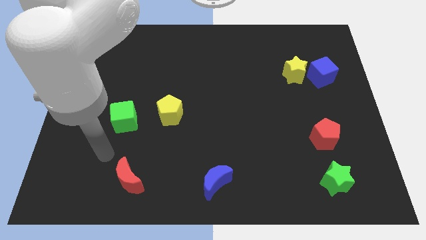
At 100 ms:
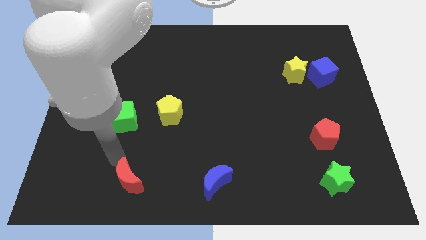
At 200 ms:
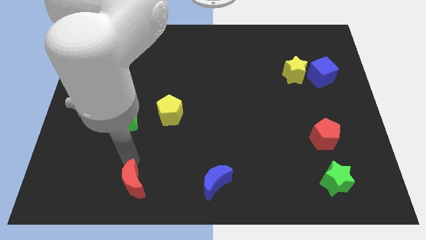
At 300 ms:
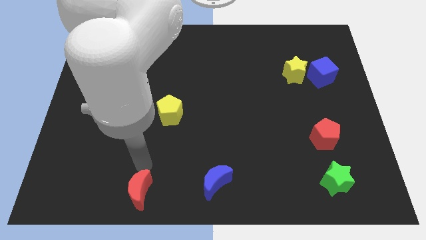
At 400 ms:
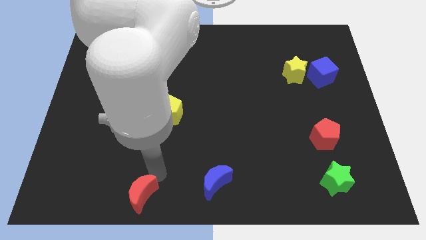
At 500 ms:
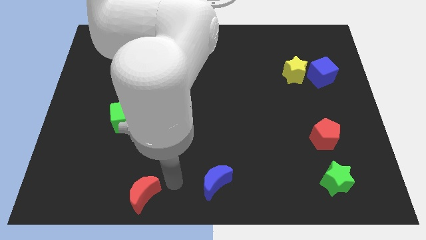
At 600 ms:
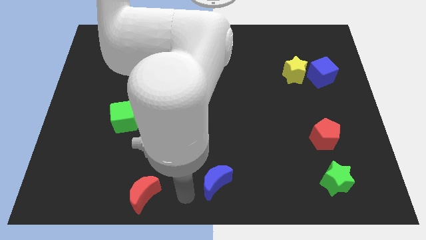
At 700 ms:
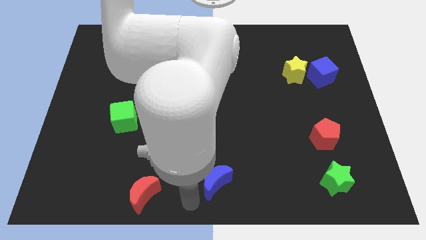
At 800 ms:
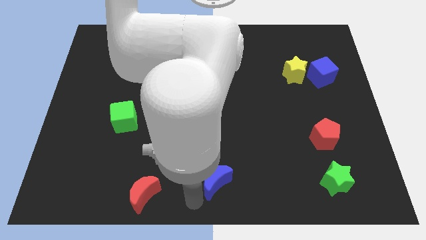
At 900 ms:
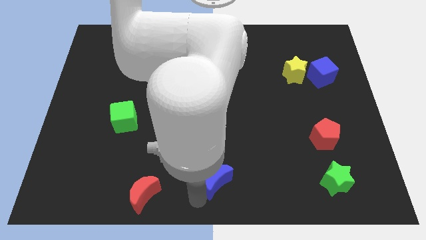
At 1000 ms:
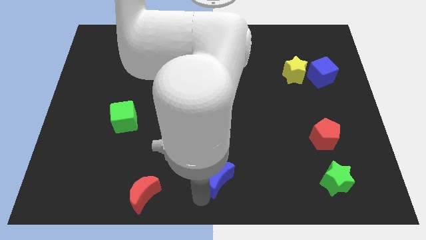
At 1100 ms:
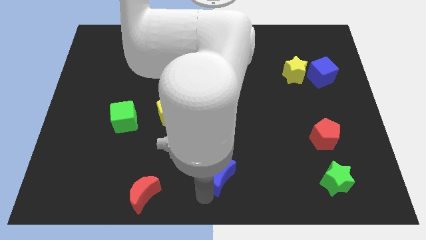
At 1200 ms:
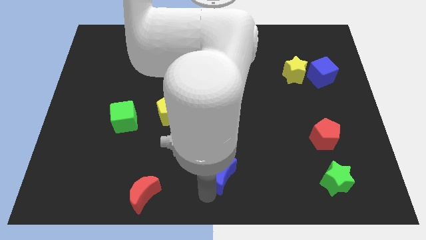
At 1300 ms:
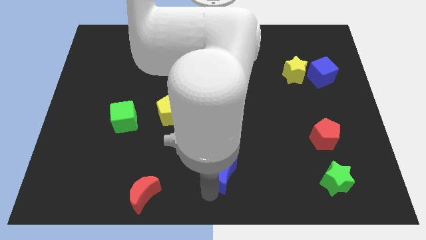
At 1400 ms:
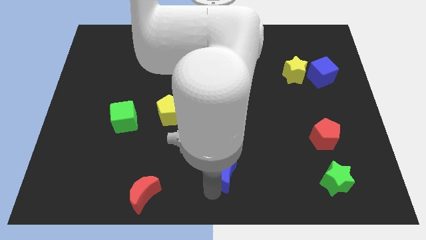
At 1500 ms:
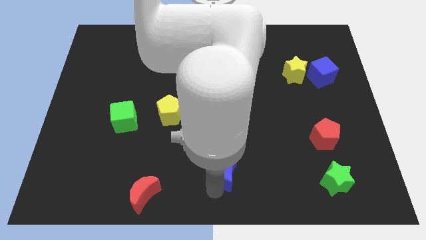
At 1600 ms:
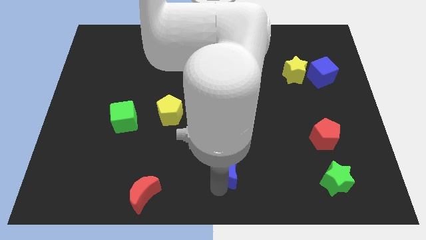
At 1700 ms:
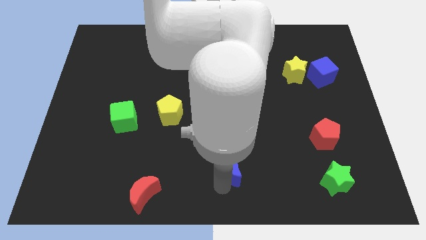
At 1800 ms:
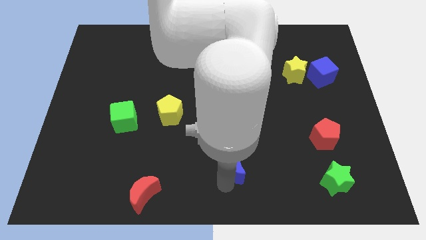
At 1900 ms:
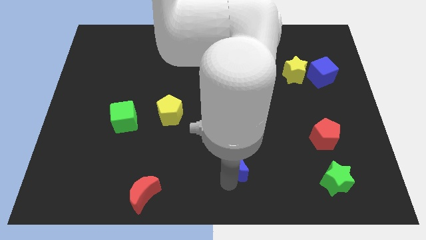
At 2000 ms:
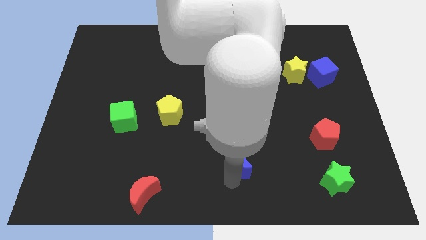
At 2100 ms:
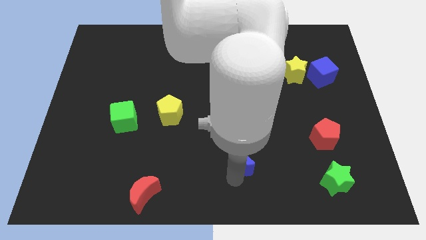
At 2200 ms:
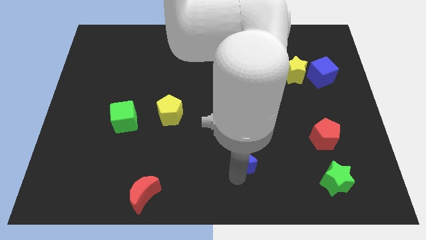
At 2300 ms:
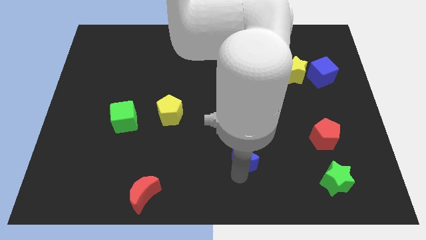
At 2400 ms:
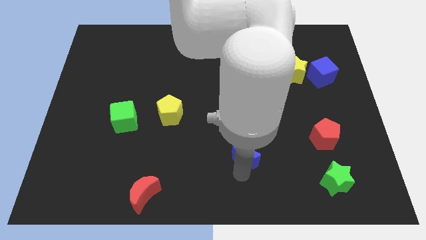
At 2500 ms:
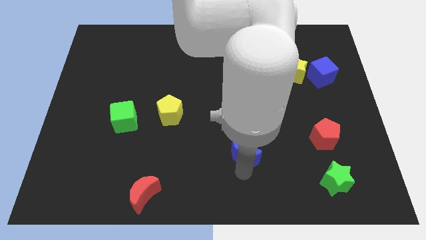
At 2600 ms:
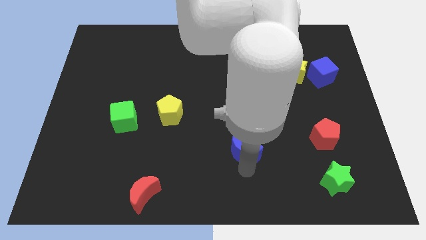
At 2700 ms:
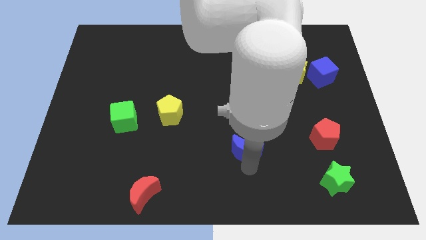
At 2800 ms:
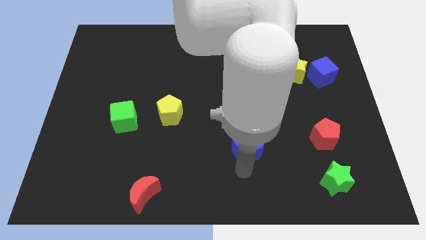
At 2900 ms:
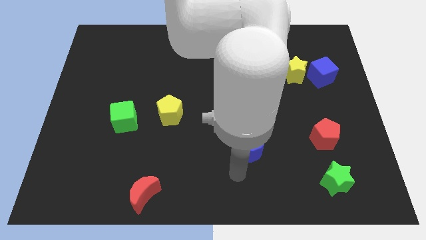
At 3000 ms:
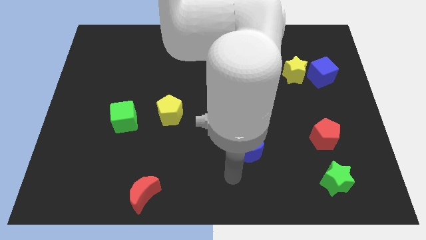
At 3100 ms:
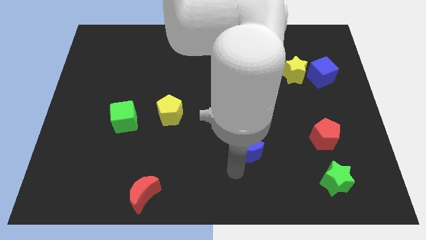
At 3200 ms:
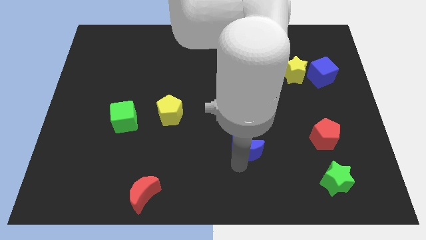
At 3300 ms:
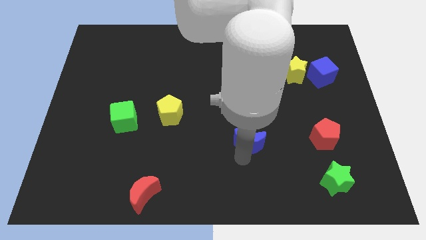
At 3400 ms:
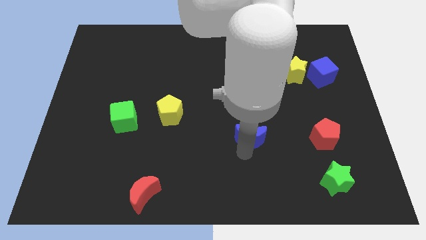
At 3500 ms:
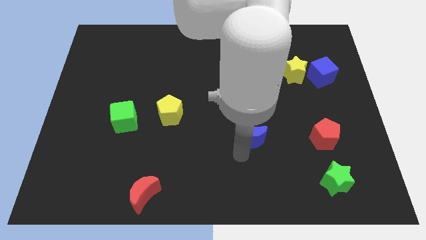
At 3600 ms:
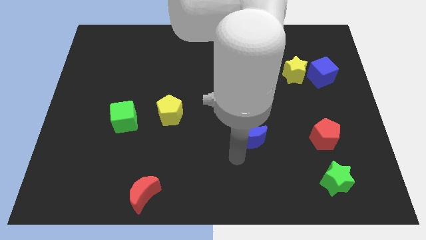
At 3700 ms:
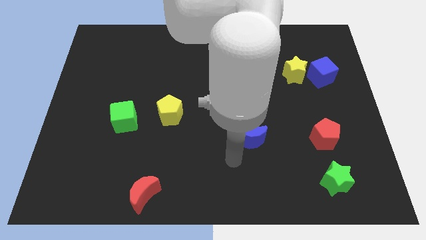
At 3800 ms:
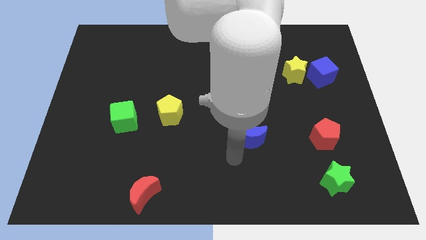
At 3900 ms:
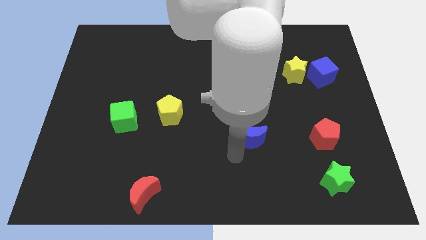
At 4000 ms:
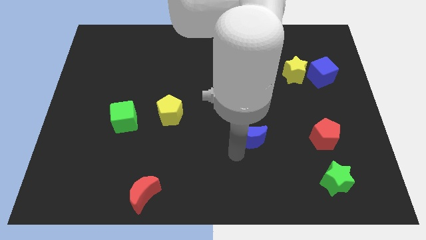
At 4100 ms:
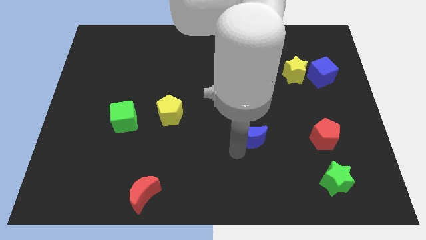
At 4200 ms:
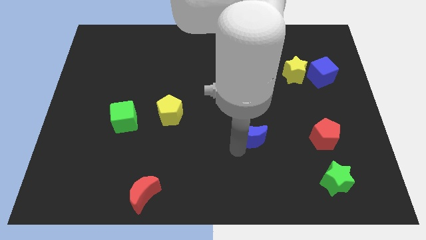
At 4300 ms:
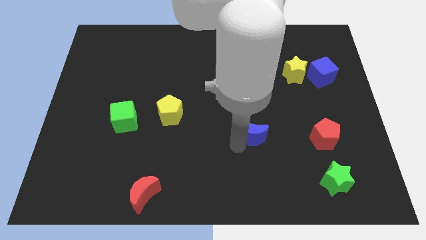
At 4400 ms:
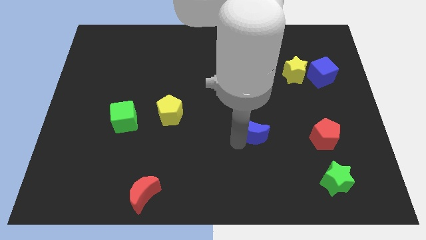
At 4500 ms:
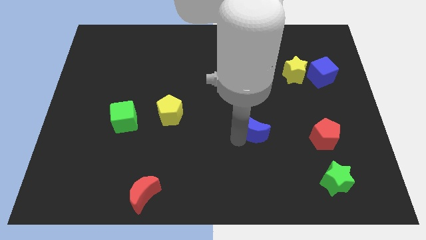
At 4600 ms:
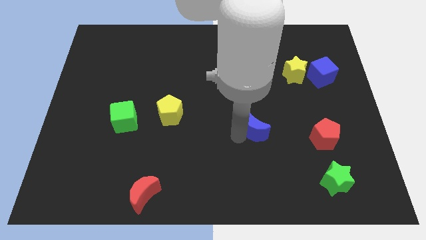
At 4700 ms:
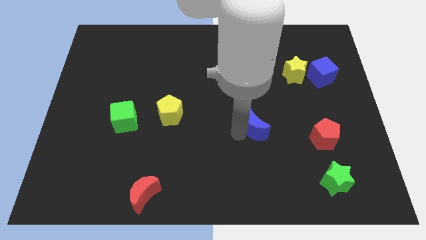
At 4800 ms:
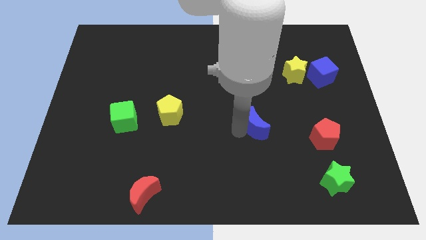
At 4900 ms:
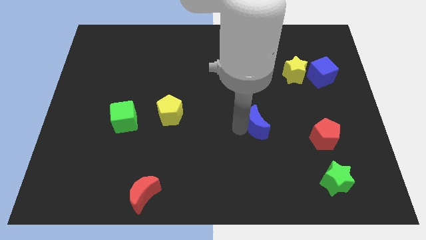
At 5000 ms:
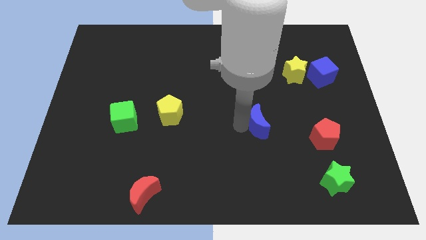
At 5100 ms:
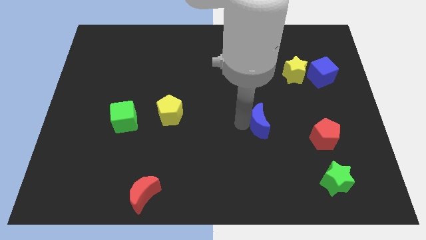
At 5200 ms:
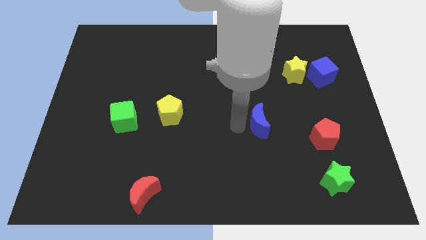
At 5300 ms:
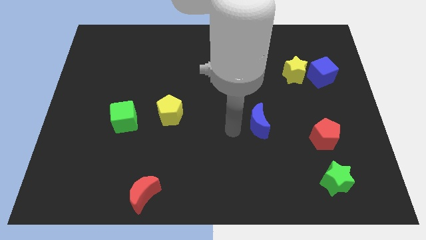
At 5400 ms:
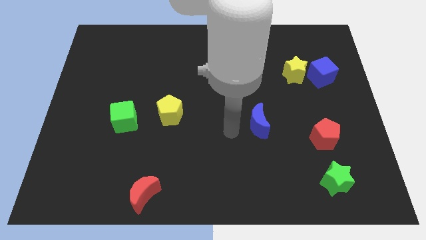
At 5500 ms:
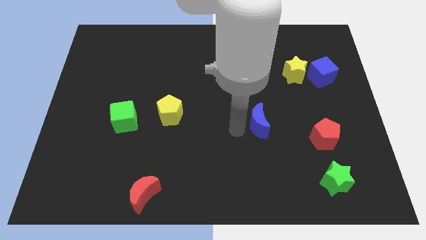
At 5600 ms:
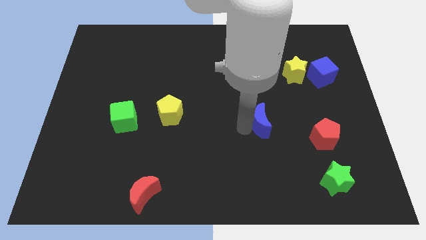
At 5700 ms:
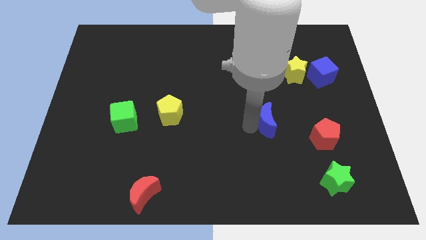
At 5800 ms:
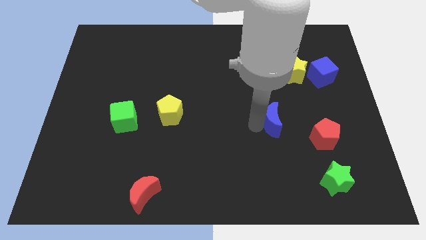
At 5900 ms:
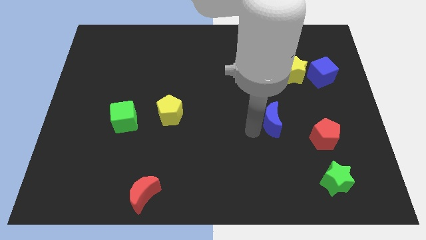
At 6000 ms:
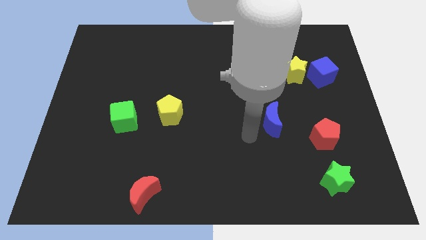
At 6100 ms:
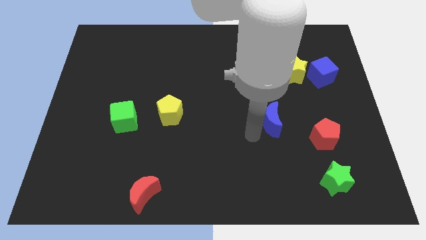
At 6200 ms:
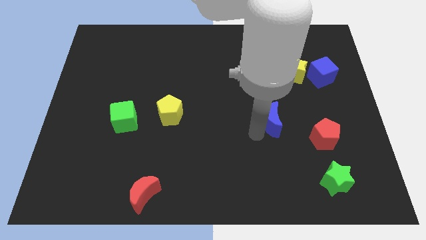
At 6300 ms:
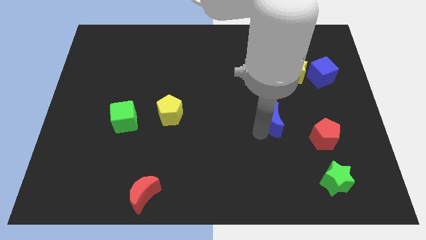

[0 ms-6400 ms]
move the blue moon diagonally upwards and right

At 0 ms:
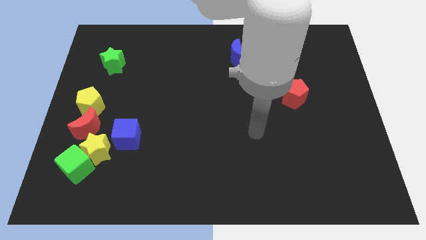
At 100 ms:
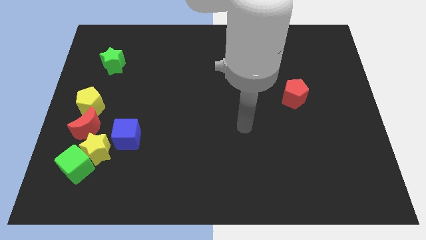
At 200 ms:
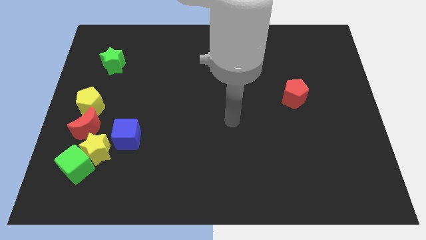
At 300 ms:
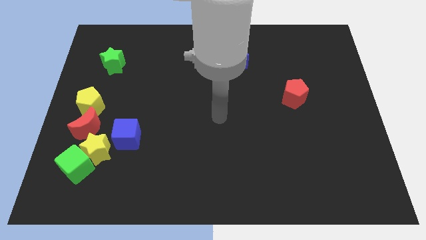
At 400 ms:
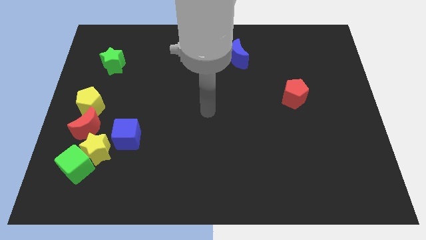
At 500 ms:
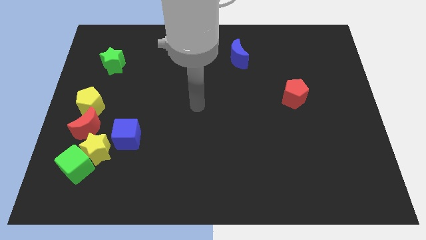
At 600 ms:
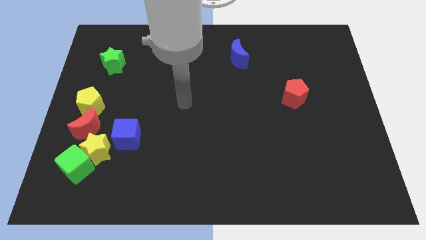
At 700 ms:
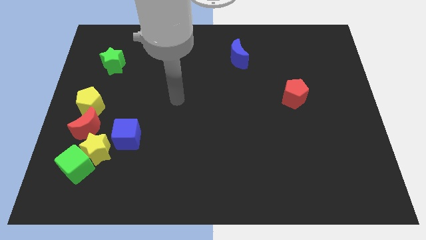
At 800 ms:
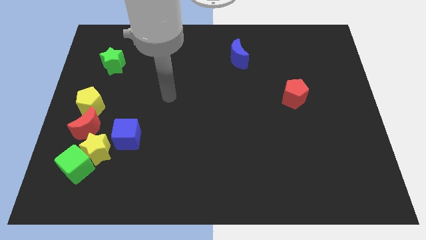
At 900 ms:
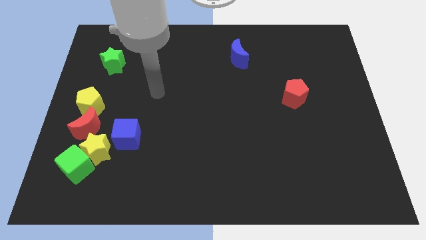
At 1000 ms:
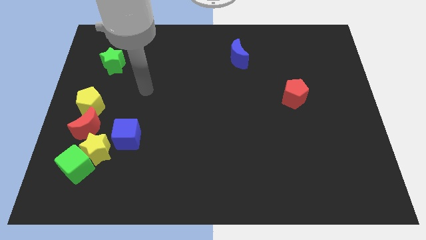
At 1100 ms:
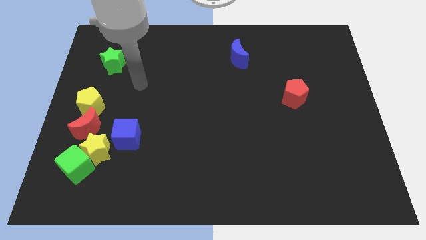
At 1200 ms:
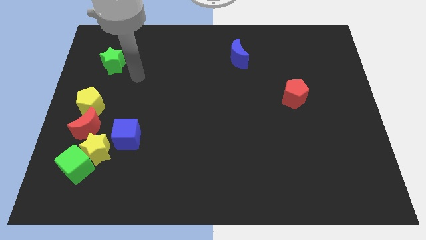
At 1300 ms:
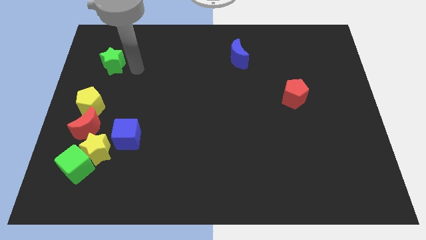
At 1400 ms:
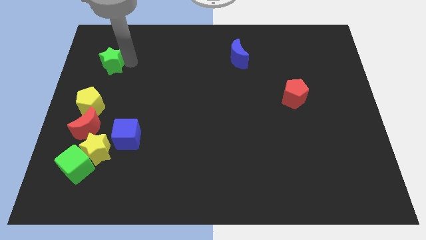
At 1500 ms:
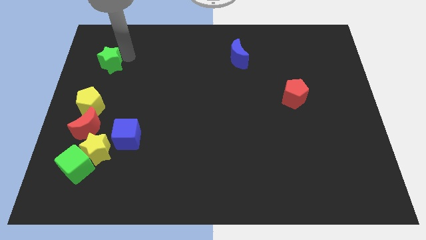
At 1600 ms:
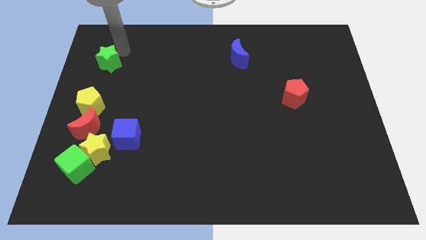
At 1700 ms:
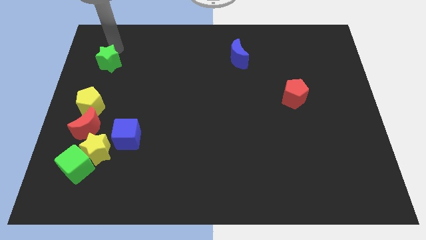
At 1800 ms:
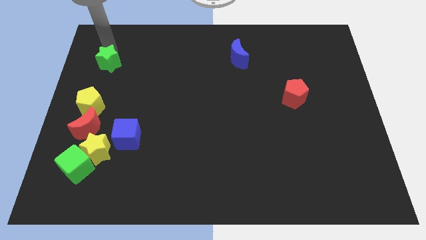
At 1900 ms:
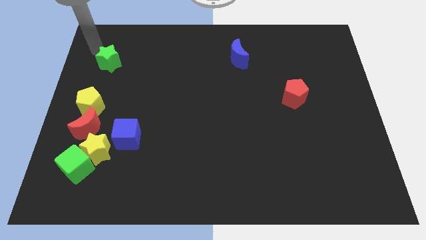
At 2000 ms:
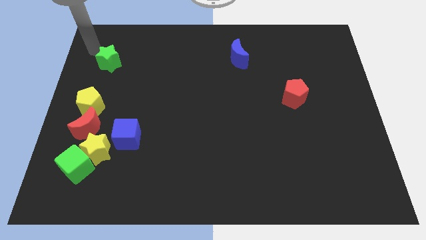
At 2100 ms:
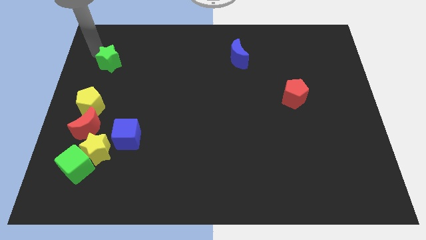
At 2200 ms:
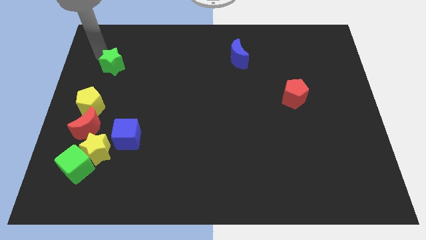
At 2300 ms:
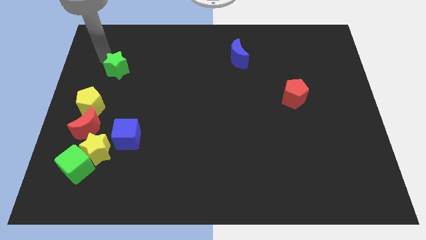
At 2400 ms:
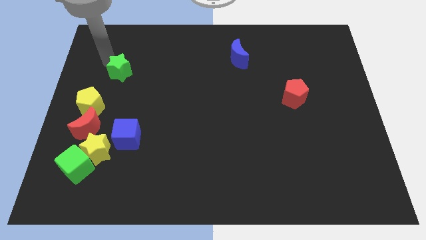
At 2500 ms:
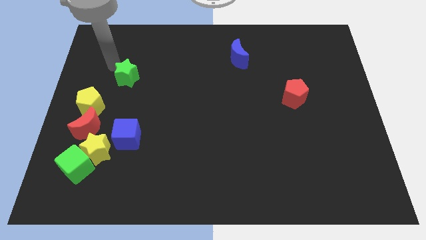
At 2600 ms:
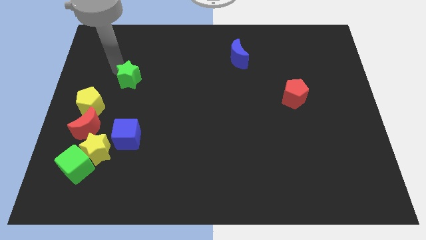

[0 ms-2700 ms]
slightly move the green star diagonally down and to the right
